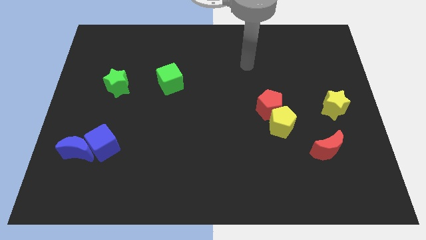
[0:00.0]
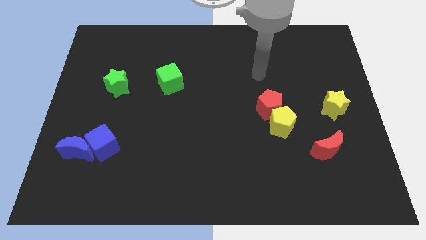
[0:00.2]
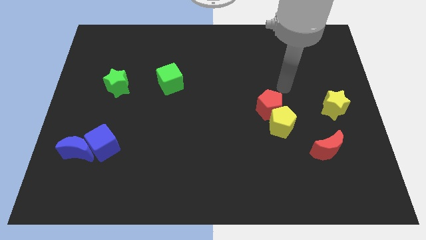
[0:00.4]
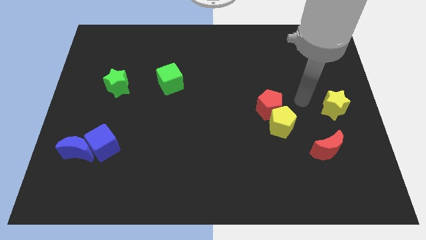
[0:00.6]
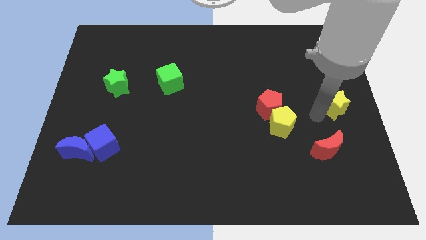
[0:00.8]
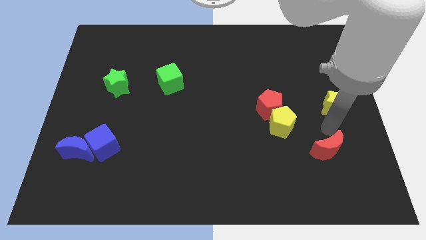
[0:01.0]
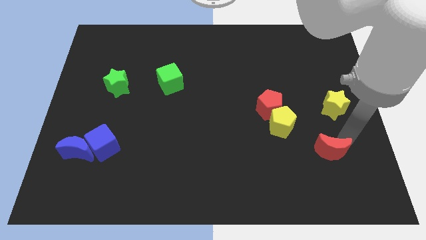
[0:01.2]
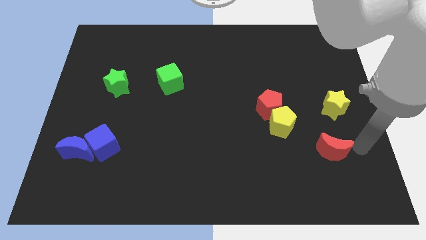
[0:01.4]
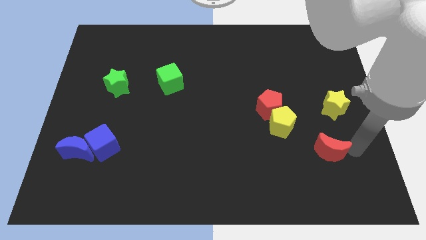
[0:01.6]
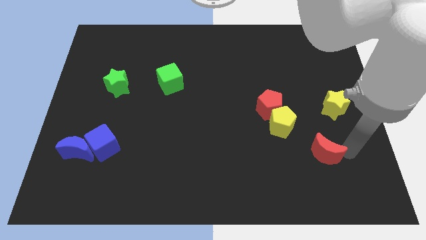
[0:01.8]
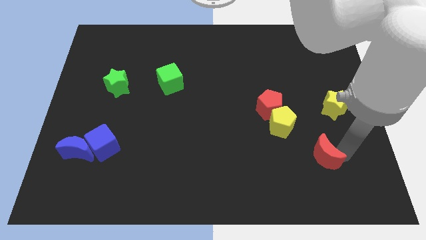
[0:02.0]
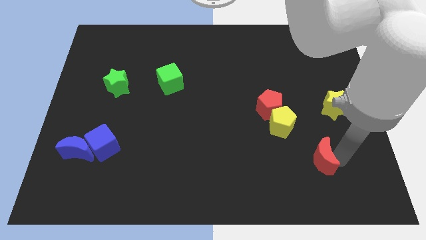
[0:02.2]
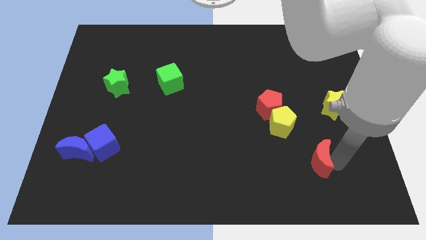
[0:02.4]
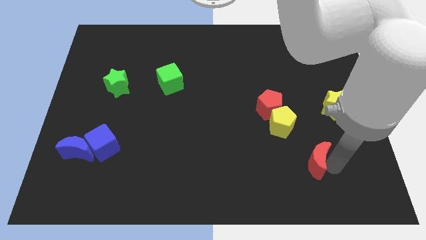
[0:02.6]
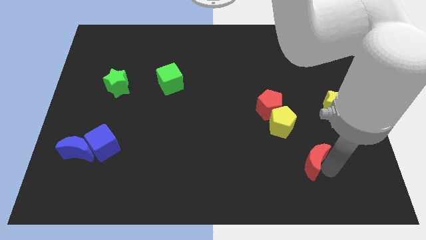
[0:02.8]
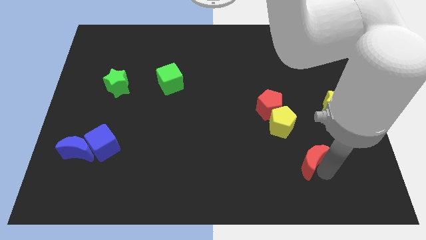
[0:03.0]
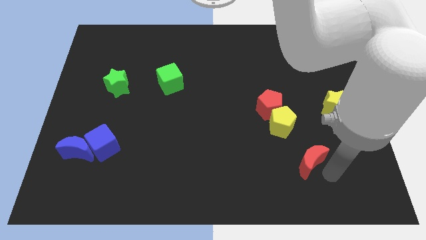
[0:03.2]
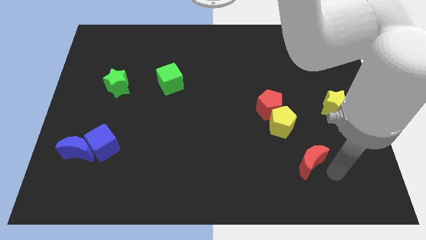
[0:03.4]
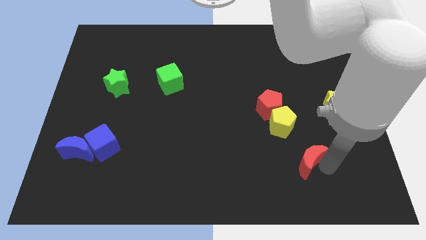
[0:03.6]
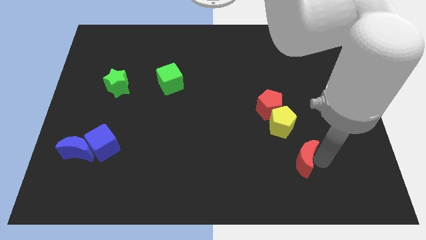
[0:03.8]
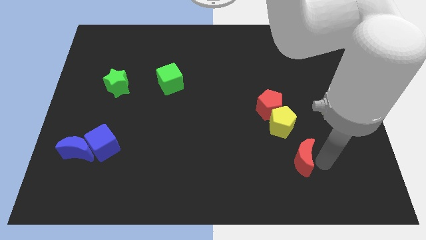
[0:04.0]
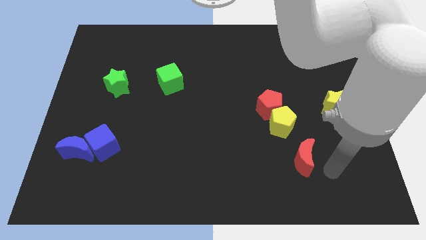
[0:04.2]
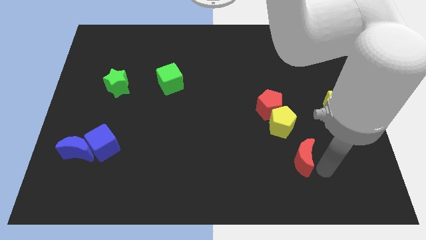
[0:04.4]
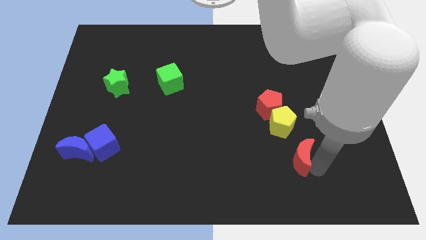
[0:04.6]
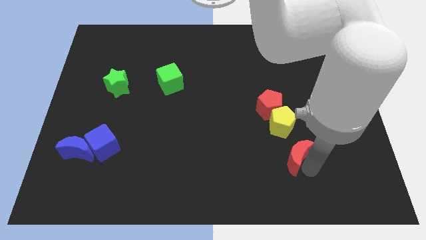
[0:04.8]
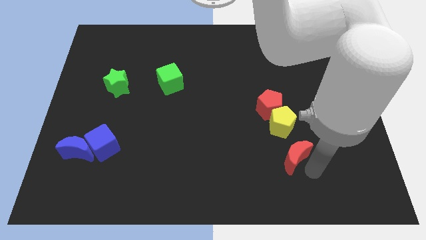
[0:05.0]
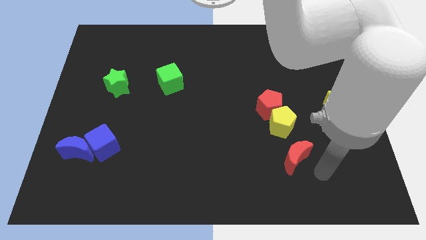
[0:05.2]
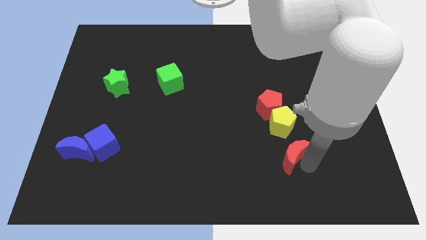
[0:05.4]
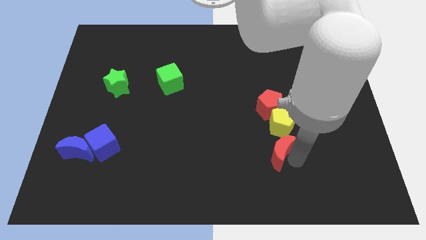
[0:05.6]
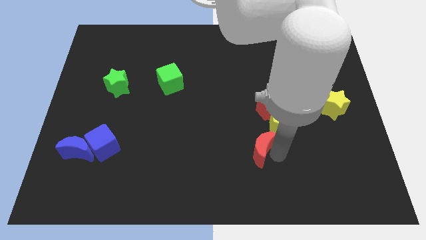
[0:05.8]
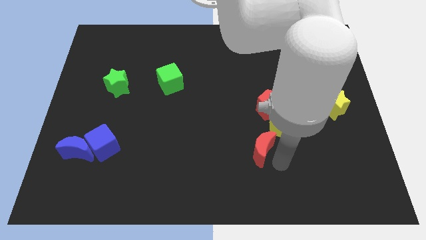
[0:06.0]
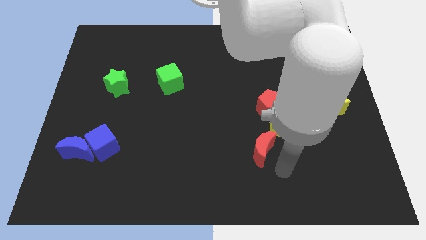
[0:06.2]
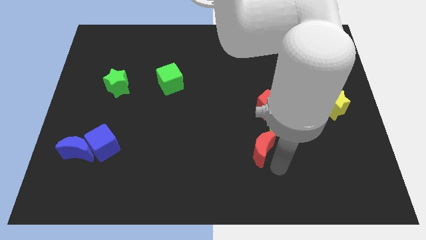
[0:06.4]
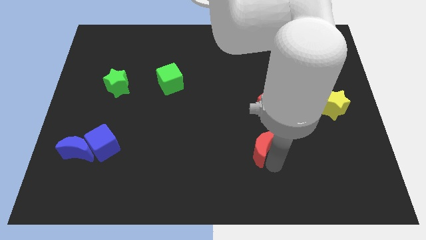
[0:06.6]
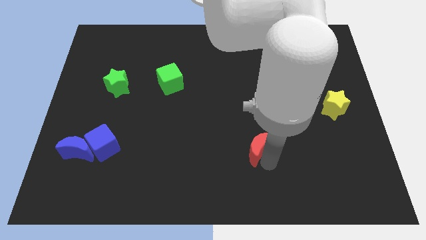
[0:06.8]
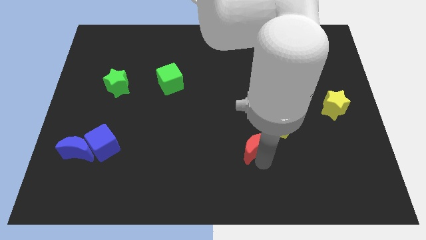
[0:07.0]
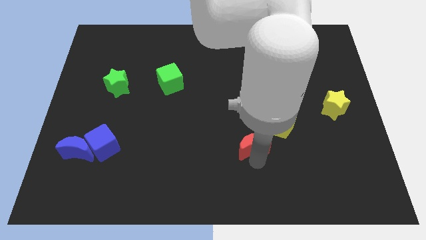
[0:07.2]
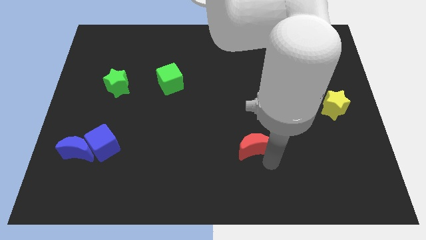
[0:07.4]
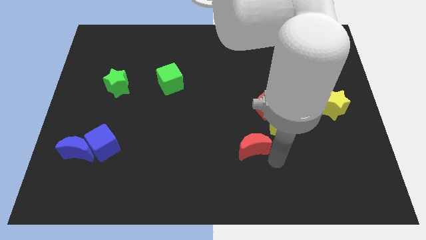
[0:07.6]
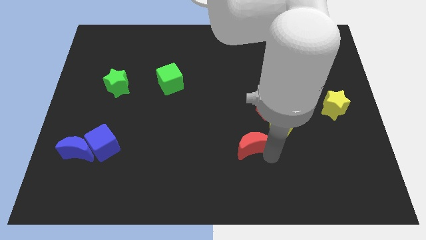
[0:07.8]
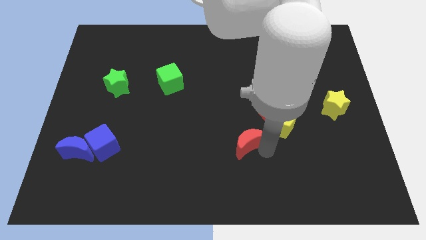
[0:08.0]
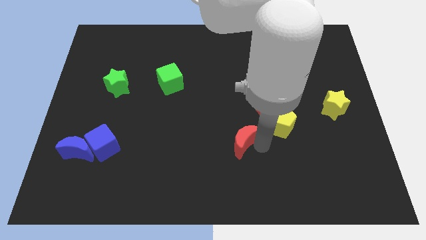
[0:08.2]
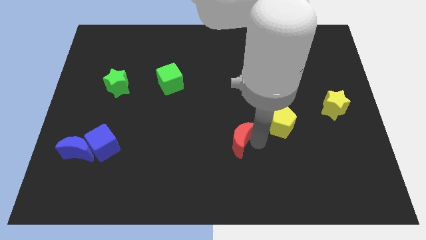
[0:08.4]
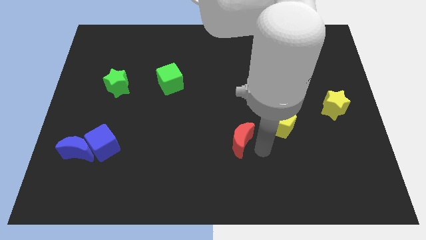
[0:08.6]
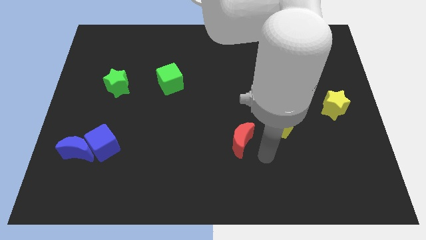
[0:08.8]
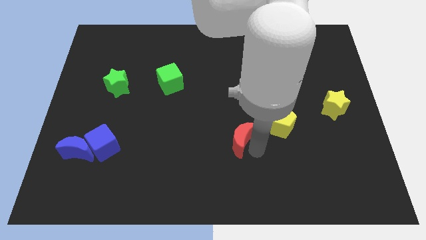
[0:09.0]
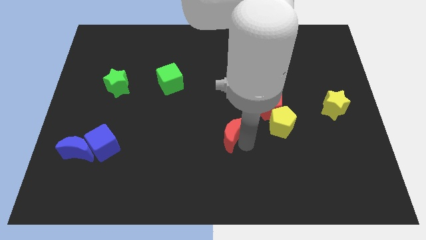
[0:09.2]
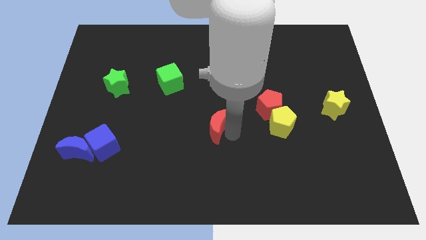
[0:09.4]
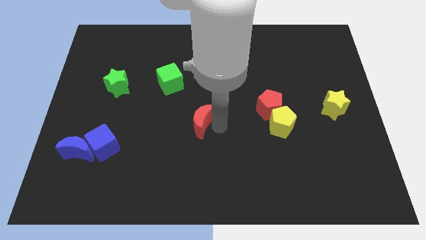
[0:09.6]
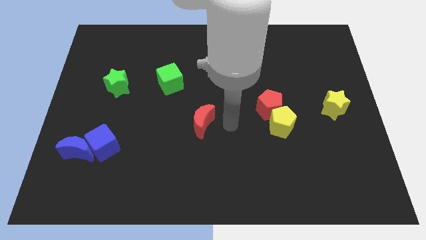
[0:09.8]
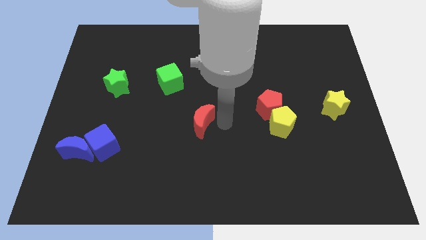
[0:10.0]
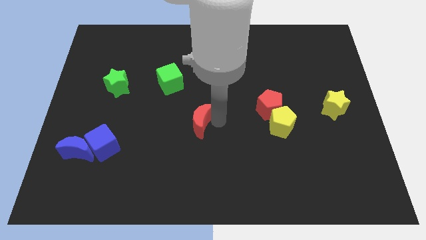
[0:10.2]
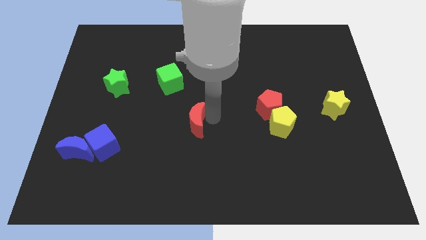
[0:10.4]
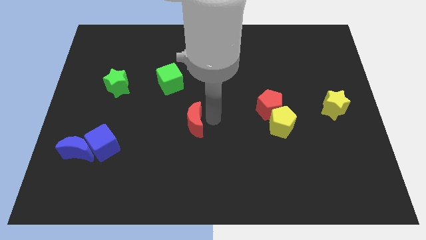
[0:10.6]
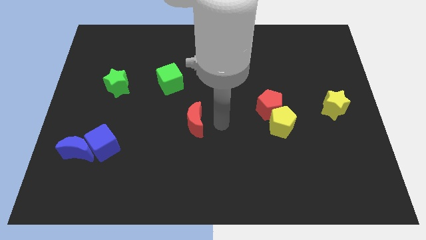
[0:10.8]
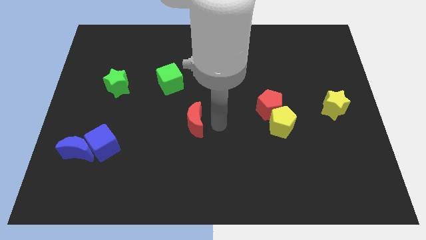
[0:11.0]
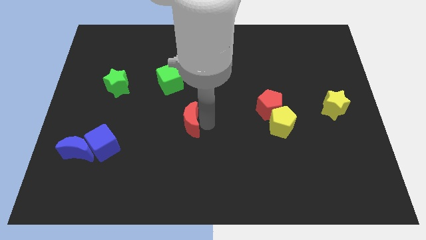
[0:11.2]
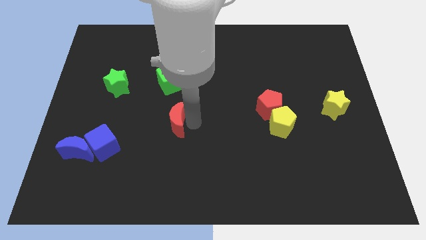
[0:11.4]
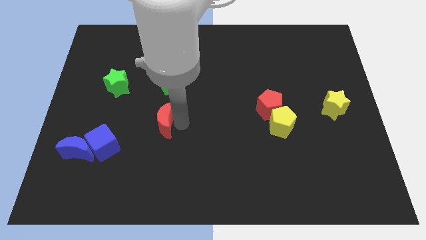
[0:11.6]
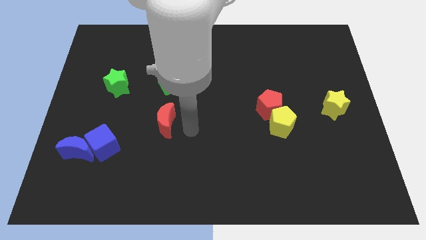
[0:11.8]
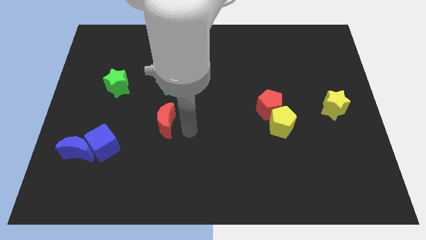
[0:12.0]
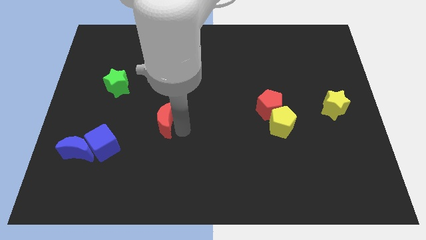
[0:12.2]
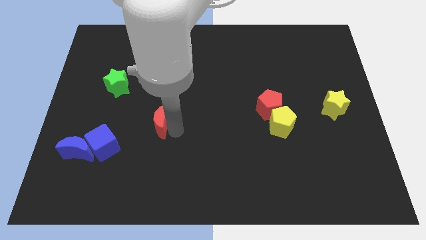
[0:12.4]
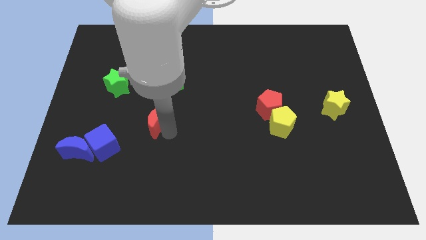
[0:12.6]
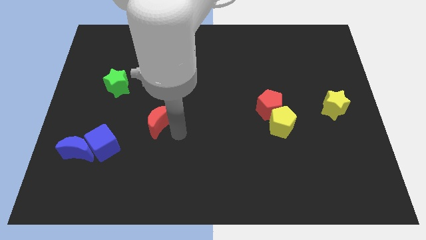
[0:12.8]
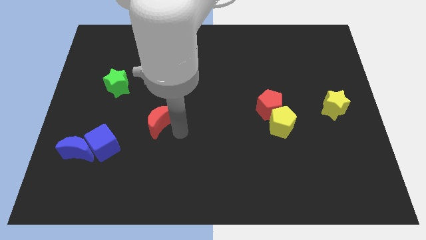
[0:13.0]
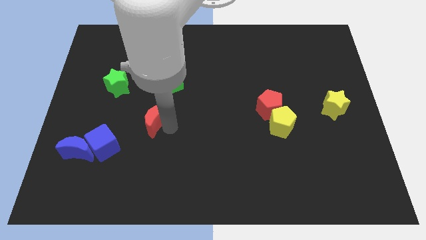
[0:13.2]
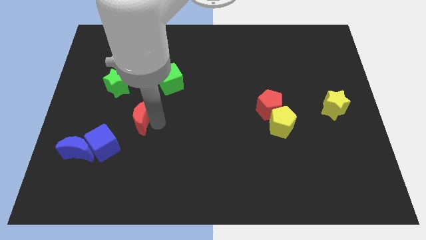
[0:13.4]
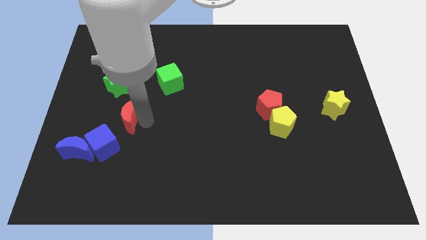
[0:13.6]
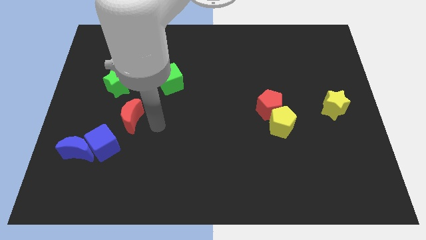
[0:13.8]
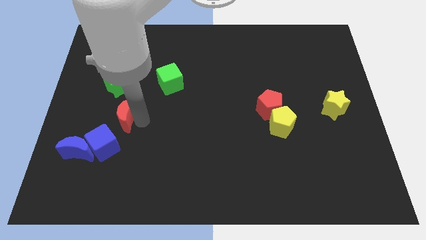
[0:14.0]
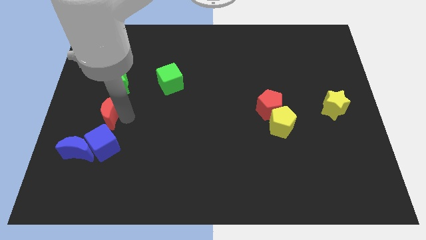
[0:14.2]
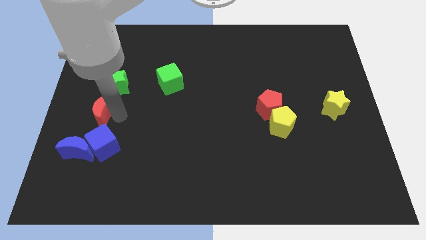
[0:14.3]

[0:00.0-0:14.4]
push the red moon to the left side
